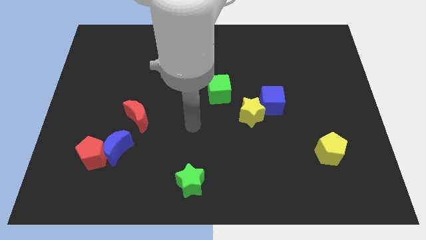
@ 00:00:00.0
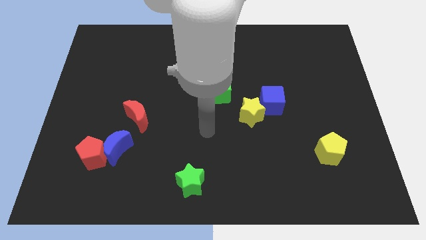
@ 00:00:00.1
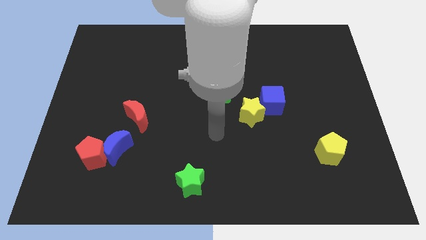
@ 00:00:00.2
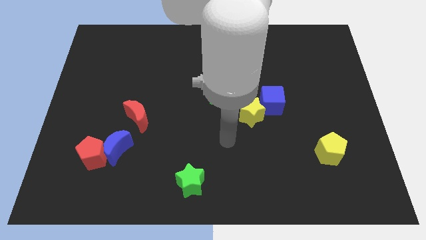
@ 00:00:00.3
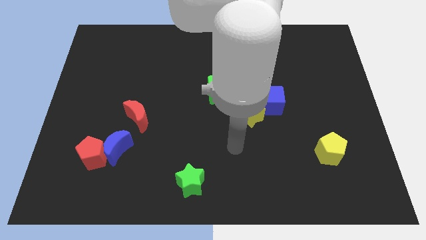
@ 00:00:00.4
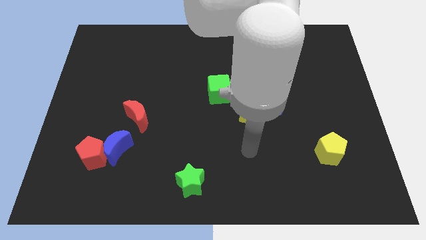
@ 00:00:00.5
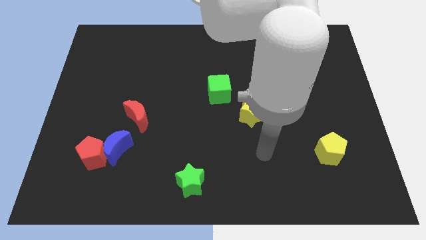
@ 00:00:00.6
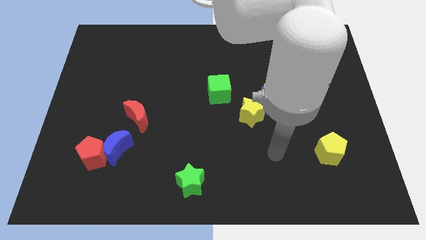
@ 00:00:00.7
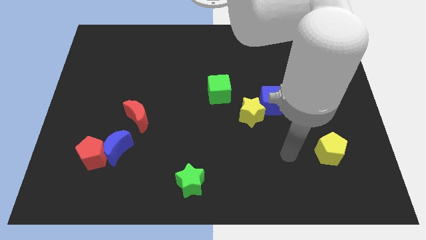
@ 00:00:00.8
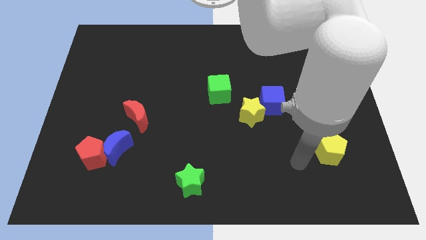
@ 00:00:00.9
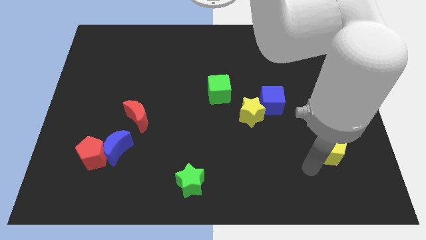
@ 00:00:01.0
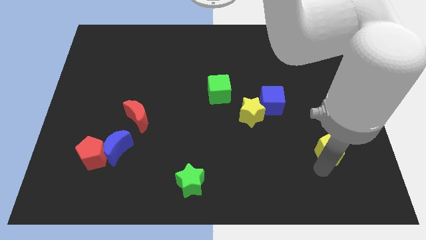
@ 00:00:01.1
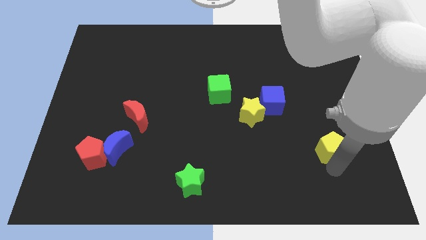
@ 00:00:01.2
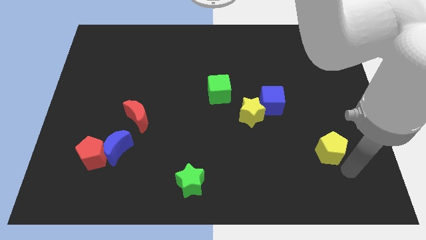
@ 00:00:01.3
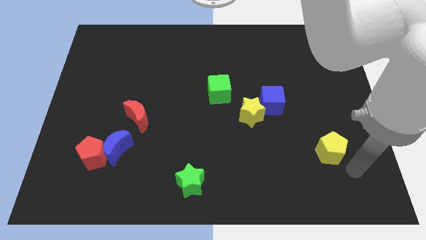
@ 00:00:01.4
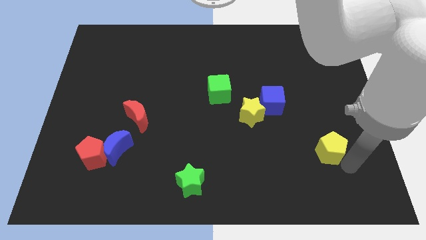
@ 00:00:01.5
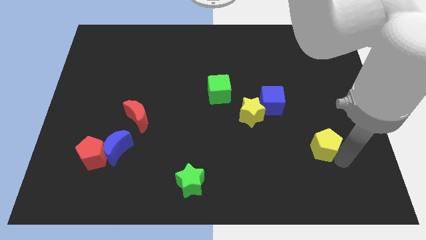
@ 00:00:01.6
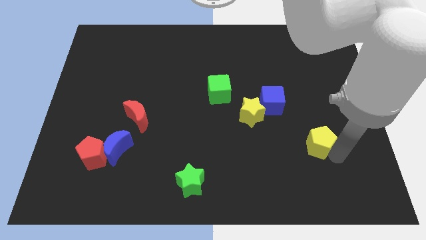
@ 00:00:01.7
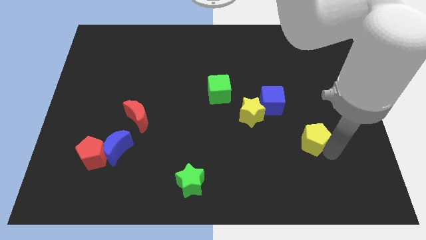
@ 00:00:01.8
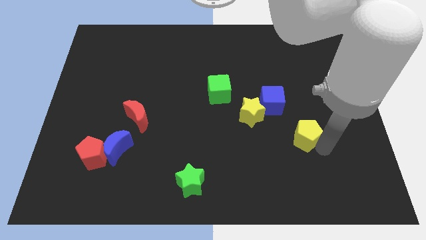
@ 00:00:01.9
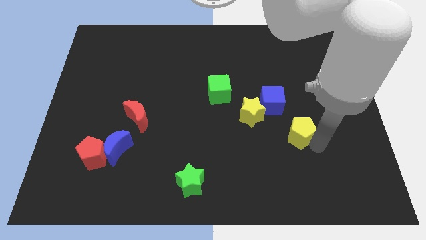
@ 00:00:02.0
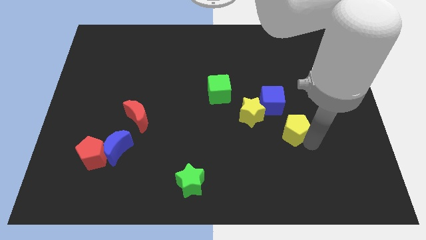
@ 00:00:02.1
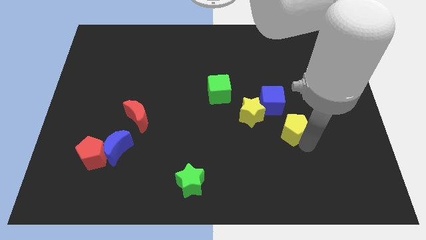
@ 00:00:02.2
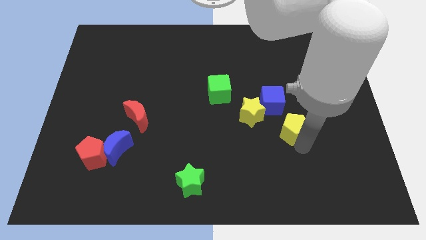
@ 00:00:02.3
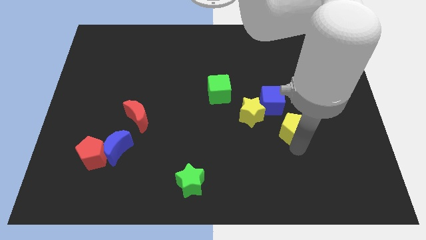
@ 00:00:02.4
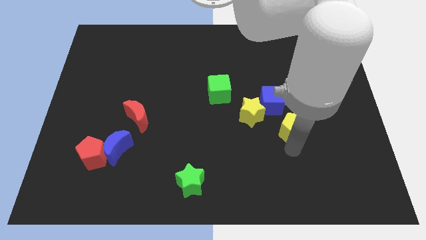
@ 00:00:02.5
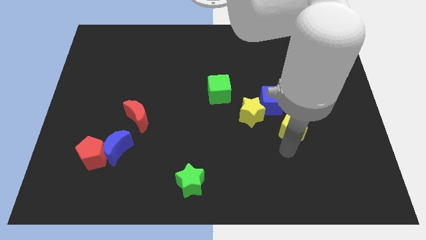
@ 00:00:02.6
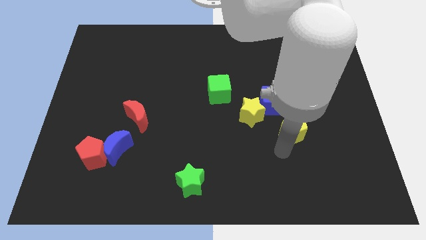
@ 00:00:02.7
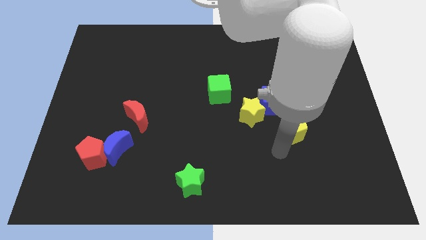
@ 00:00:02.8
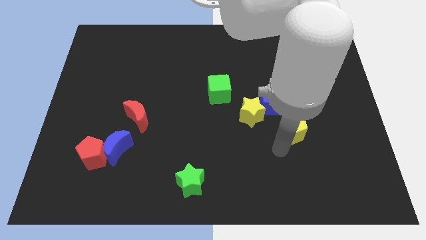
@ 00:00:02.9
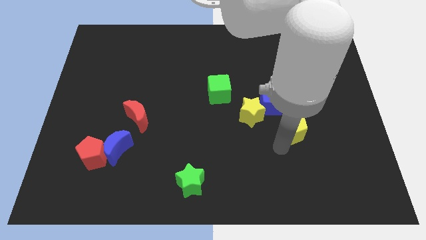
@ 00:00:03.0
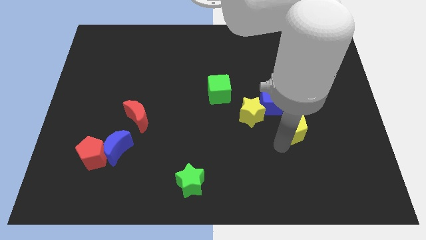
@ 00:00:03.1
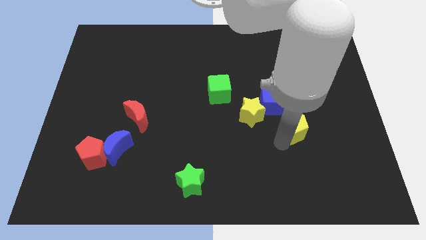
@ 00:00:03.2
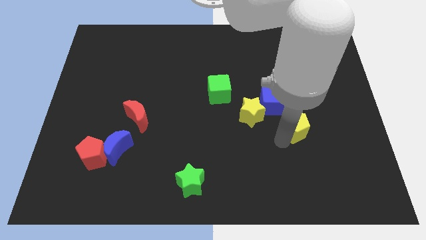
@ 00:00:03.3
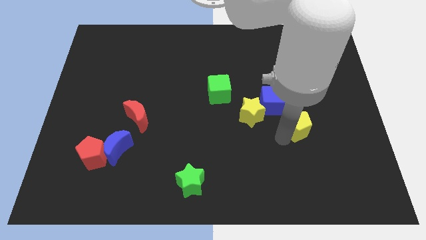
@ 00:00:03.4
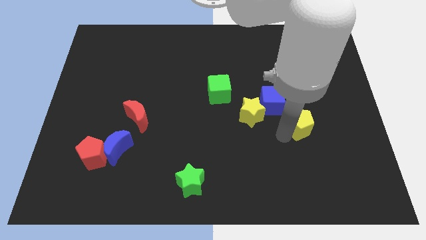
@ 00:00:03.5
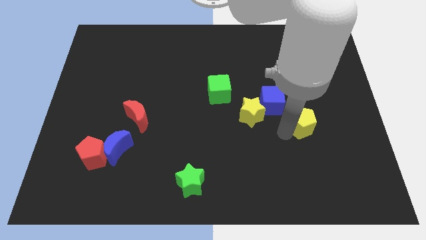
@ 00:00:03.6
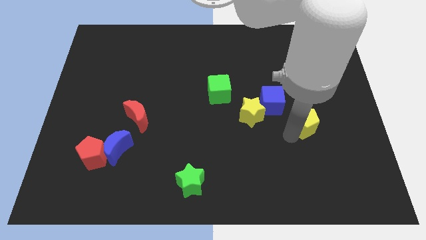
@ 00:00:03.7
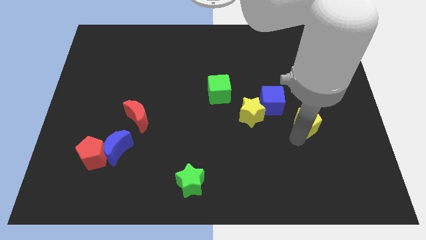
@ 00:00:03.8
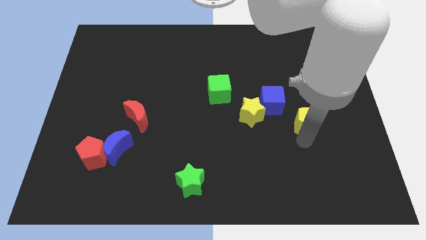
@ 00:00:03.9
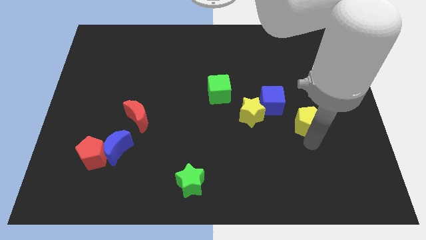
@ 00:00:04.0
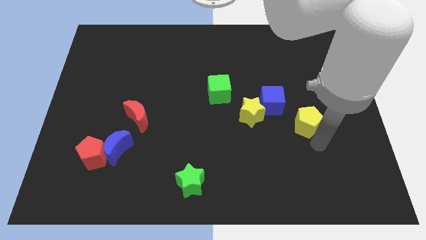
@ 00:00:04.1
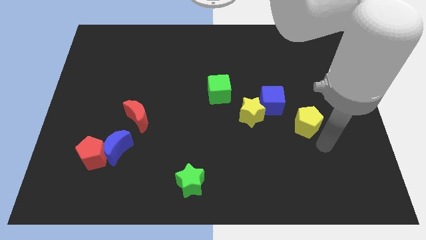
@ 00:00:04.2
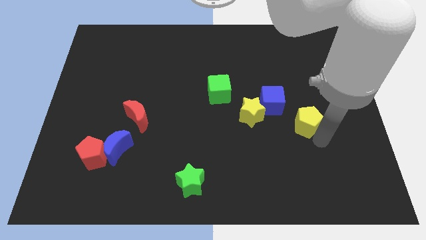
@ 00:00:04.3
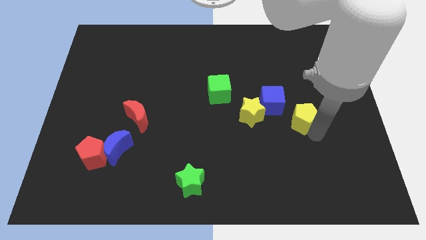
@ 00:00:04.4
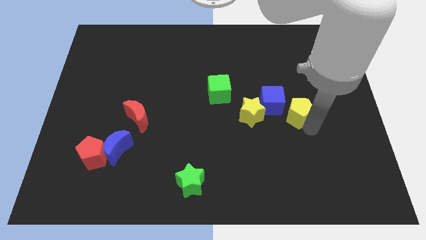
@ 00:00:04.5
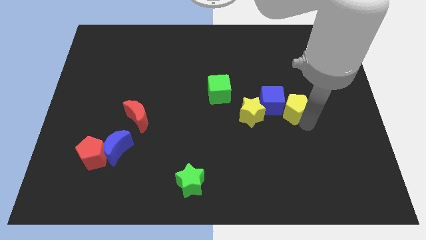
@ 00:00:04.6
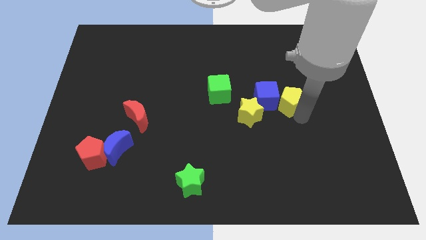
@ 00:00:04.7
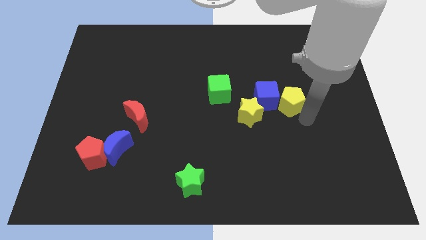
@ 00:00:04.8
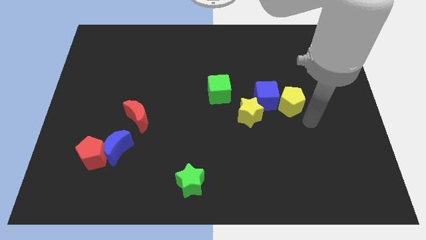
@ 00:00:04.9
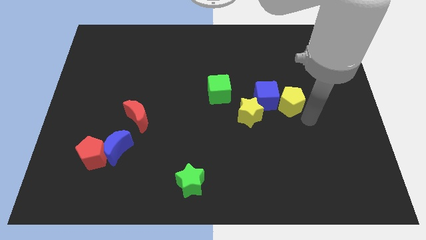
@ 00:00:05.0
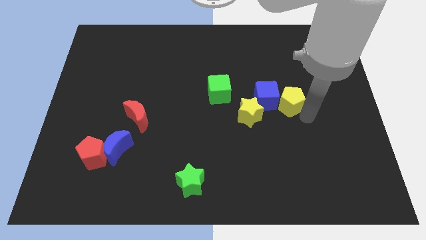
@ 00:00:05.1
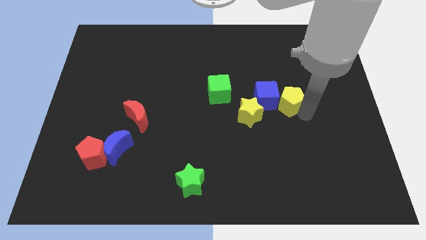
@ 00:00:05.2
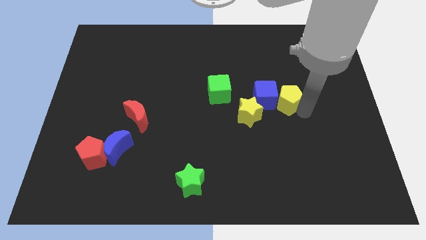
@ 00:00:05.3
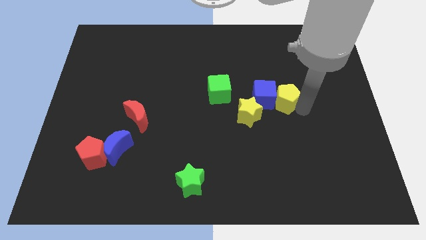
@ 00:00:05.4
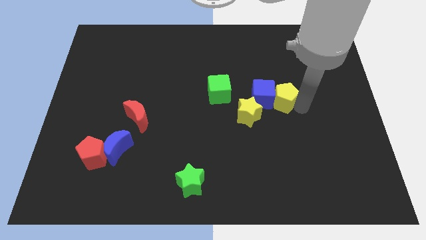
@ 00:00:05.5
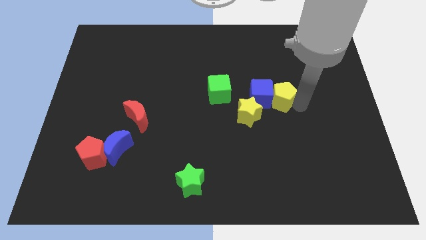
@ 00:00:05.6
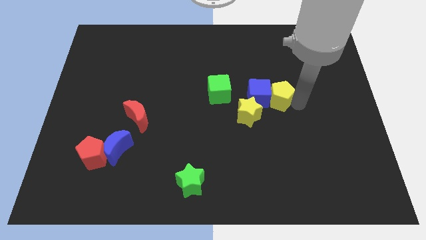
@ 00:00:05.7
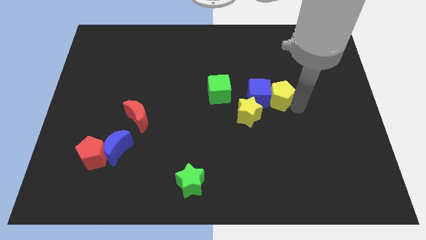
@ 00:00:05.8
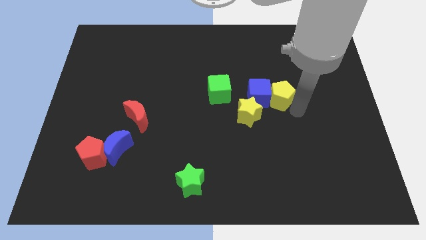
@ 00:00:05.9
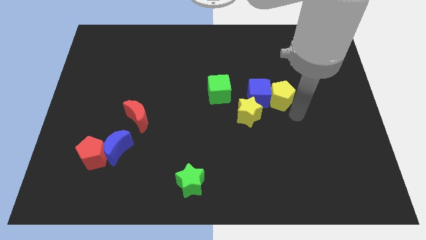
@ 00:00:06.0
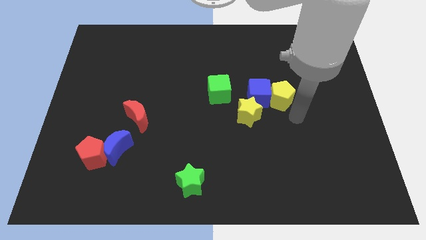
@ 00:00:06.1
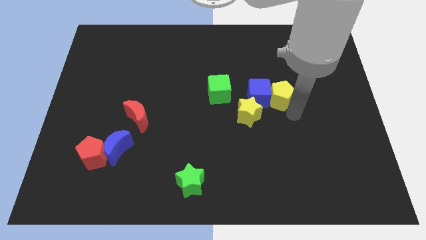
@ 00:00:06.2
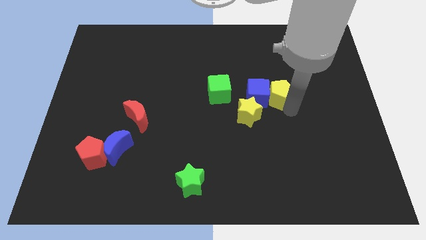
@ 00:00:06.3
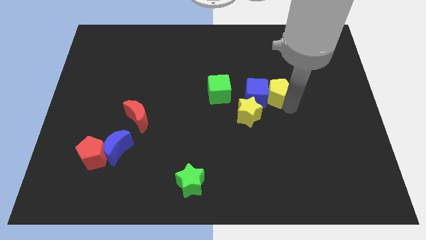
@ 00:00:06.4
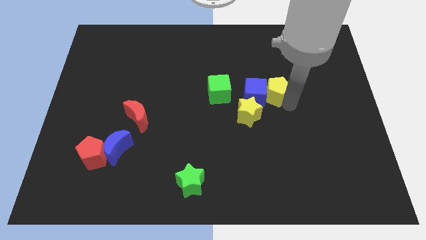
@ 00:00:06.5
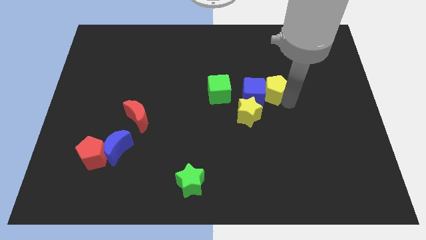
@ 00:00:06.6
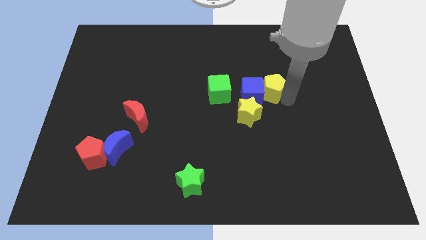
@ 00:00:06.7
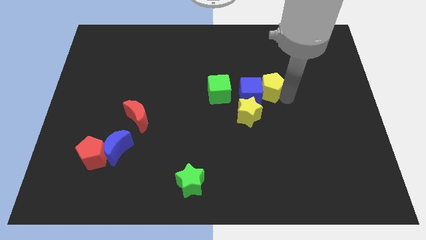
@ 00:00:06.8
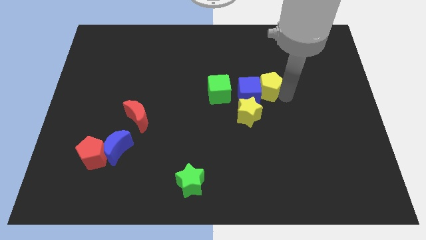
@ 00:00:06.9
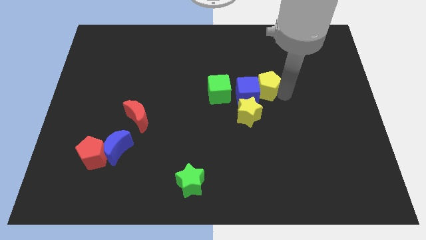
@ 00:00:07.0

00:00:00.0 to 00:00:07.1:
move the yellow pentagon up and to the left

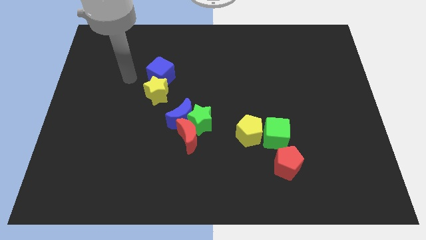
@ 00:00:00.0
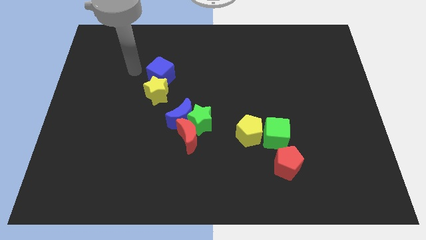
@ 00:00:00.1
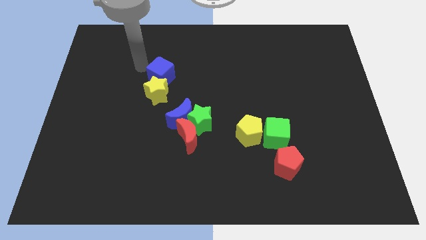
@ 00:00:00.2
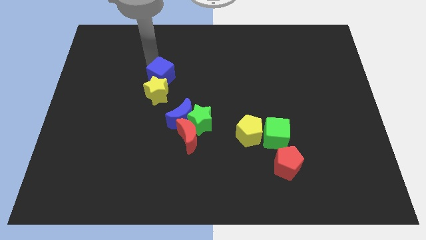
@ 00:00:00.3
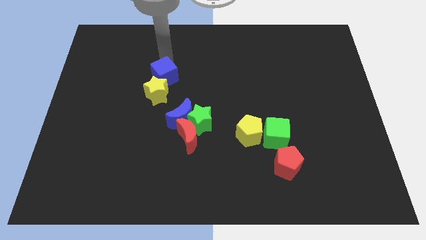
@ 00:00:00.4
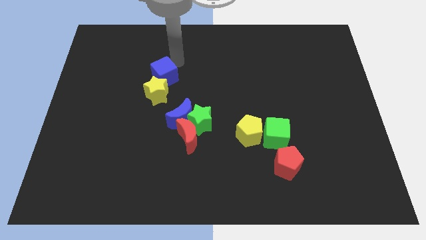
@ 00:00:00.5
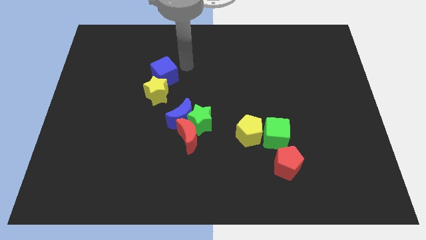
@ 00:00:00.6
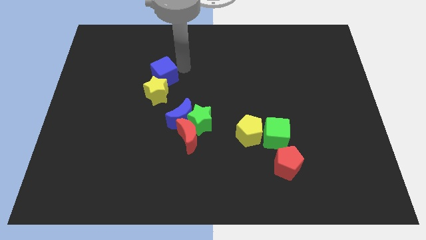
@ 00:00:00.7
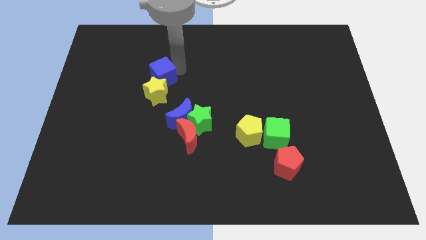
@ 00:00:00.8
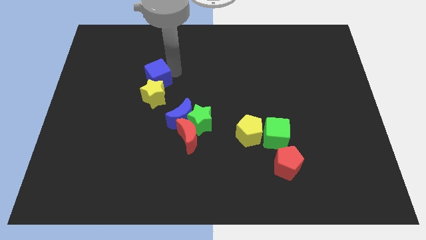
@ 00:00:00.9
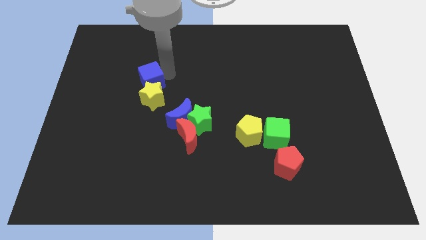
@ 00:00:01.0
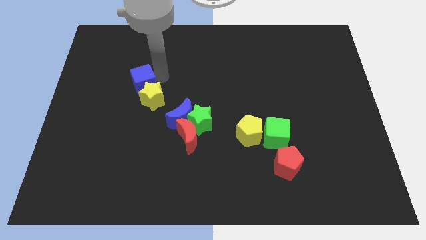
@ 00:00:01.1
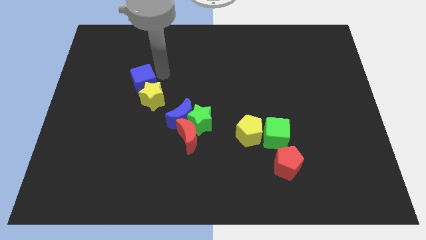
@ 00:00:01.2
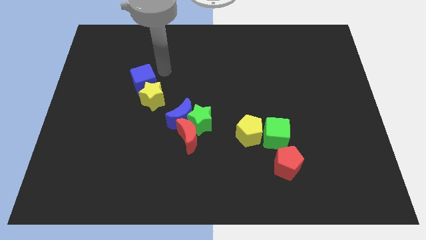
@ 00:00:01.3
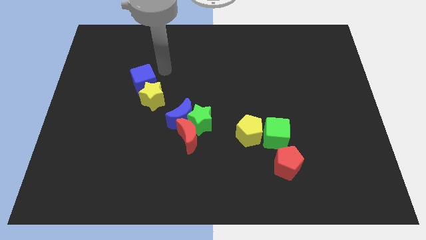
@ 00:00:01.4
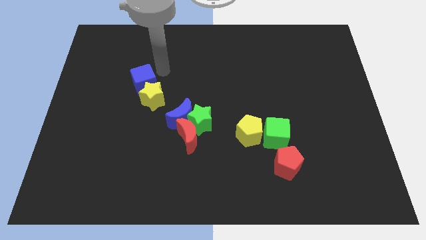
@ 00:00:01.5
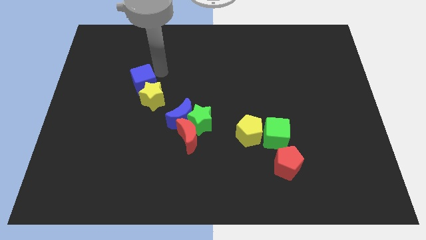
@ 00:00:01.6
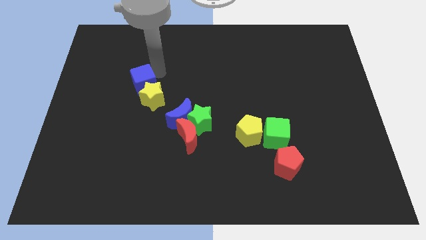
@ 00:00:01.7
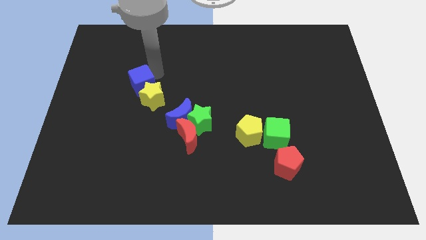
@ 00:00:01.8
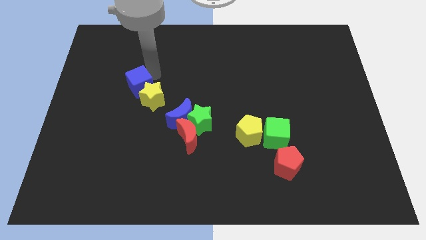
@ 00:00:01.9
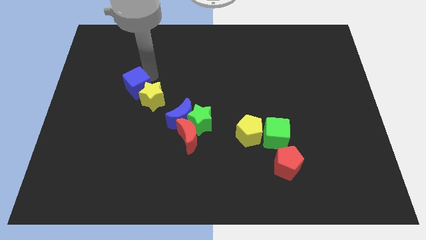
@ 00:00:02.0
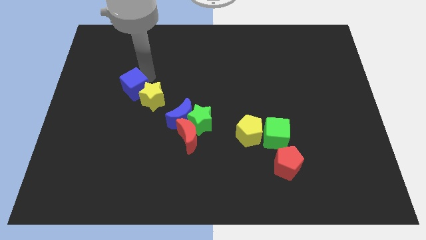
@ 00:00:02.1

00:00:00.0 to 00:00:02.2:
push the blue cube down and left slightly
